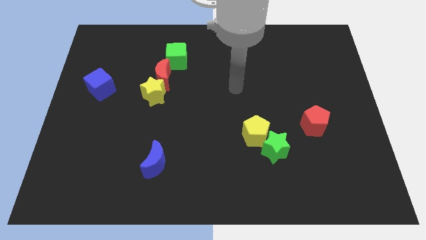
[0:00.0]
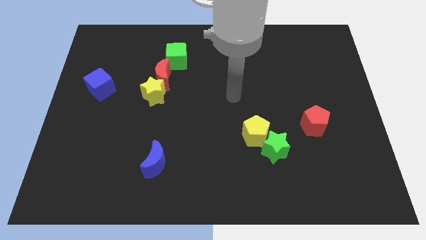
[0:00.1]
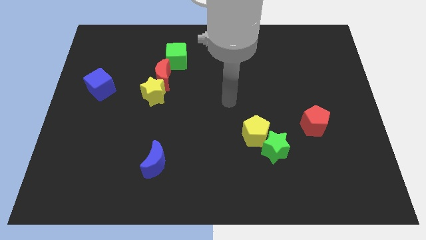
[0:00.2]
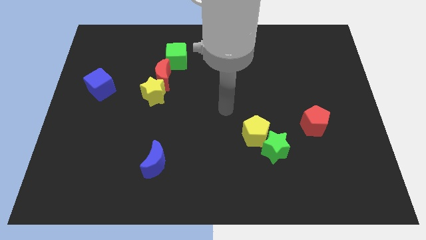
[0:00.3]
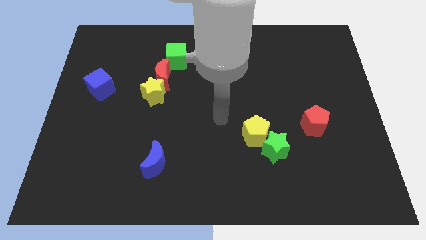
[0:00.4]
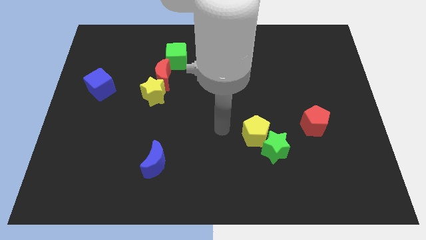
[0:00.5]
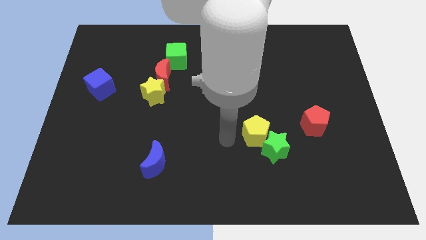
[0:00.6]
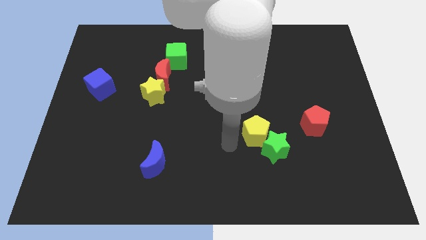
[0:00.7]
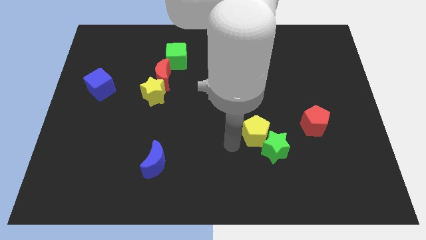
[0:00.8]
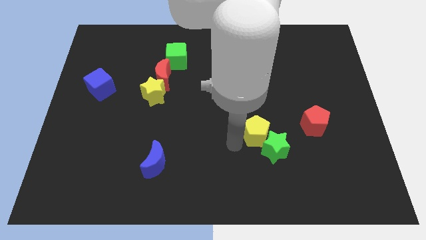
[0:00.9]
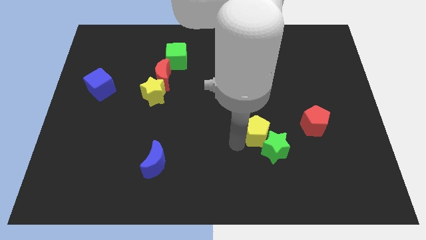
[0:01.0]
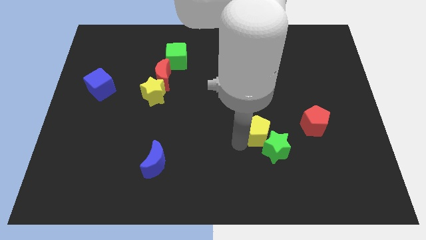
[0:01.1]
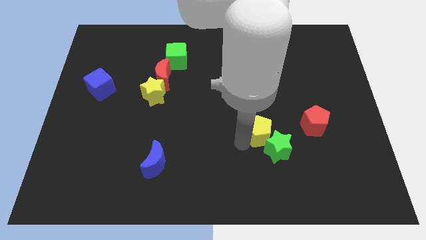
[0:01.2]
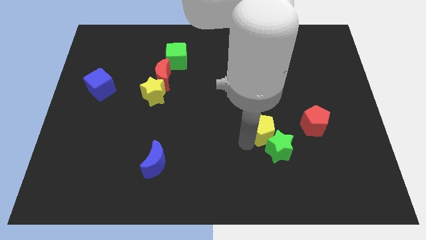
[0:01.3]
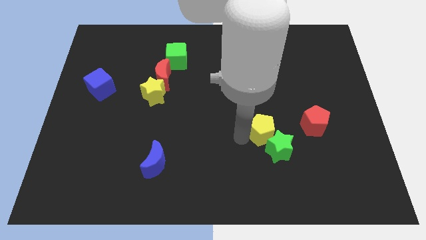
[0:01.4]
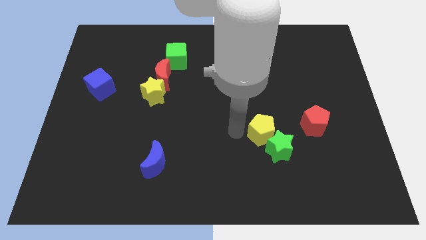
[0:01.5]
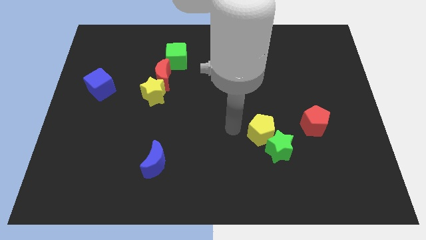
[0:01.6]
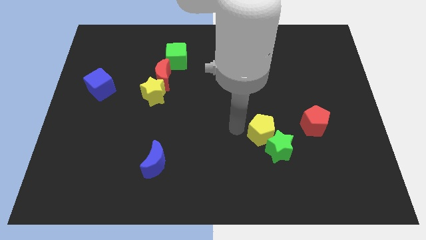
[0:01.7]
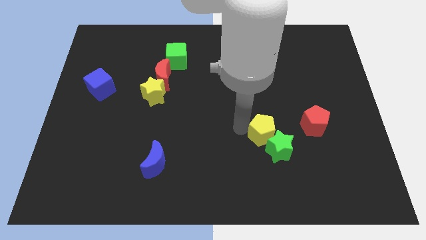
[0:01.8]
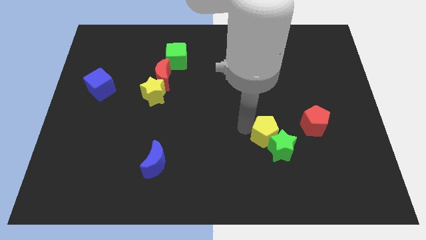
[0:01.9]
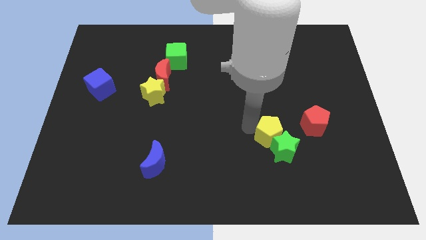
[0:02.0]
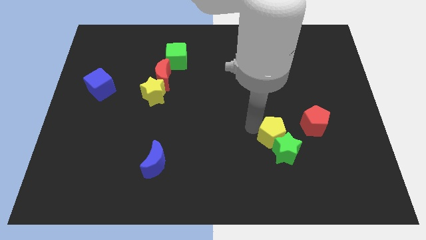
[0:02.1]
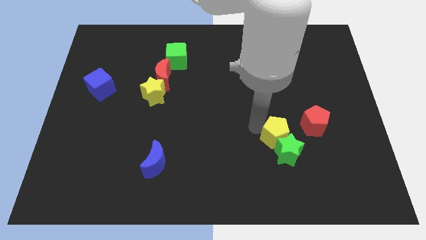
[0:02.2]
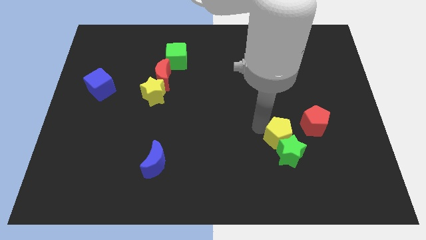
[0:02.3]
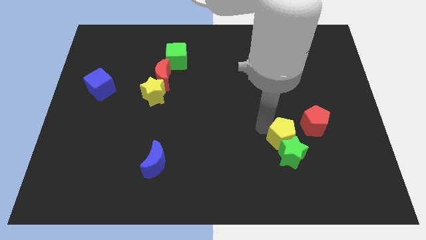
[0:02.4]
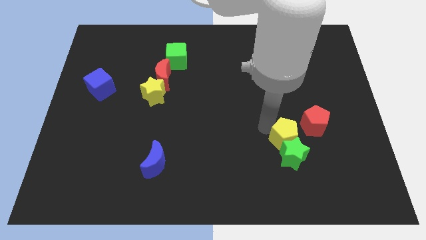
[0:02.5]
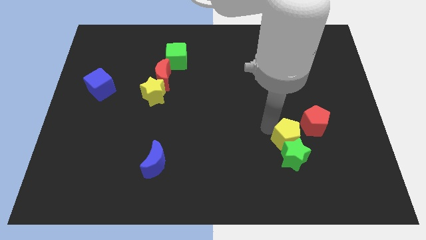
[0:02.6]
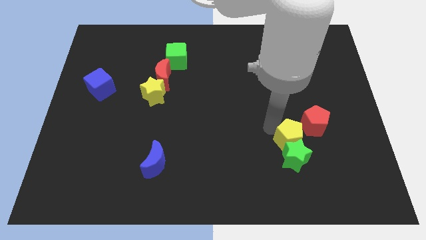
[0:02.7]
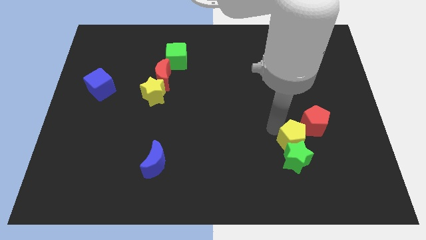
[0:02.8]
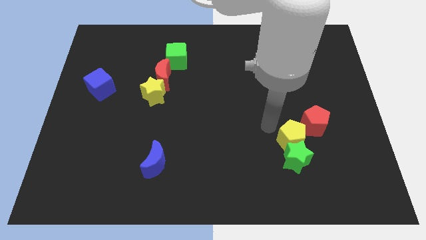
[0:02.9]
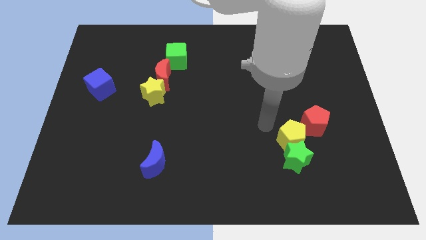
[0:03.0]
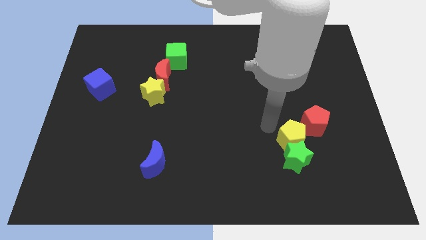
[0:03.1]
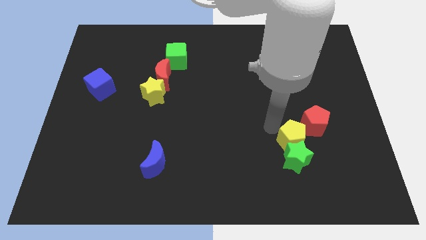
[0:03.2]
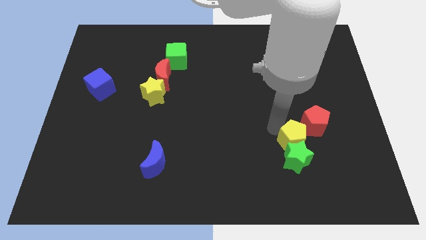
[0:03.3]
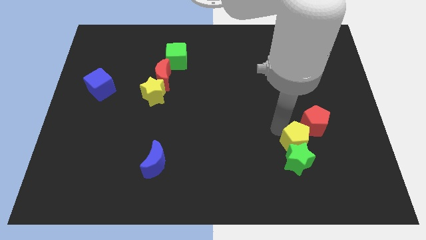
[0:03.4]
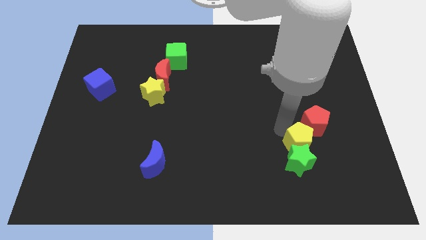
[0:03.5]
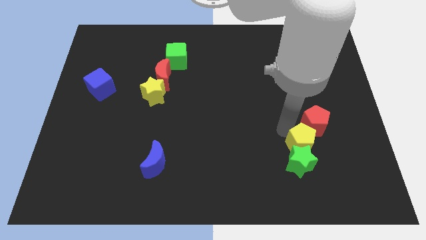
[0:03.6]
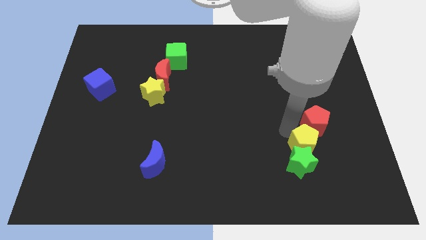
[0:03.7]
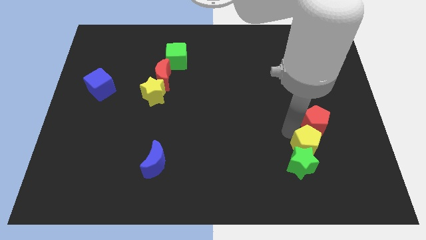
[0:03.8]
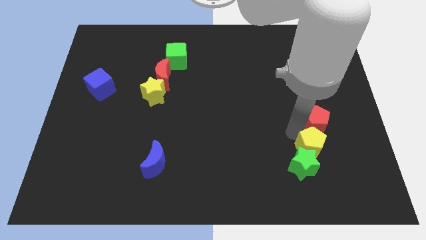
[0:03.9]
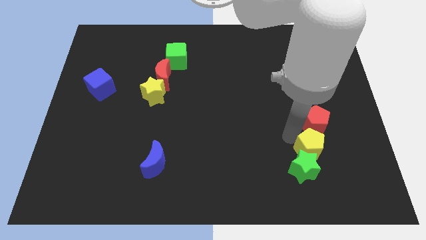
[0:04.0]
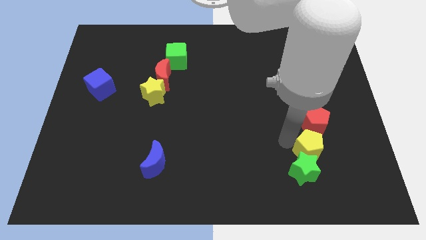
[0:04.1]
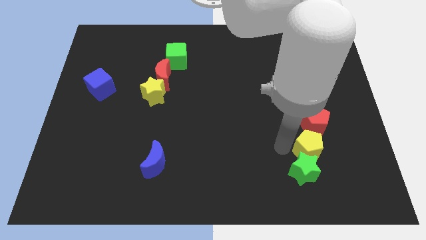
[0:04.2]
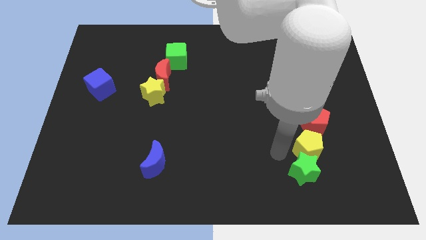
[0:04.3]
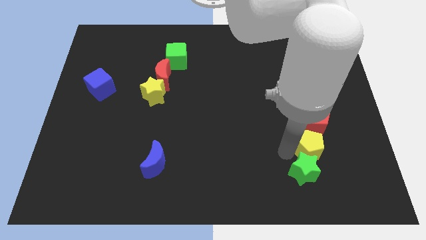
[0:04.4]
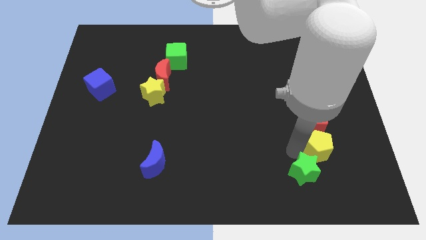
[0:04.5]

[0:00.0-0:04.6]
put the yellow pentagon to the bottom right side of the red pentagon

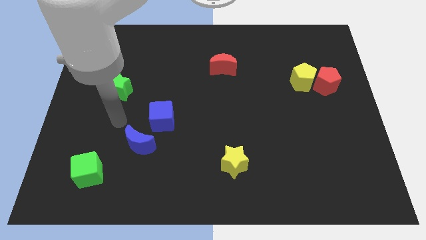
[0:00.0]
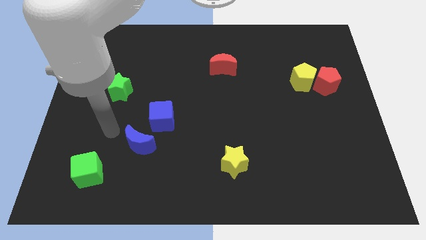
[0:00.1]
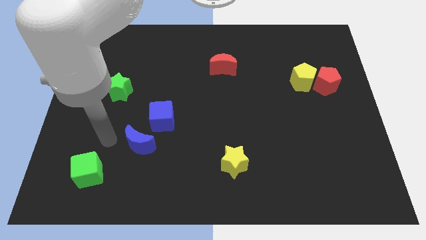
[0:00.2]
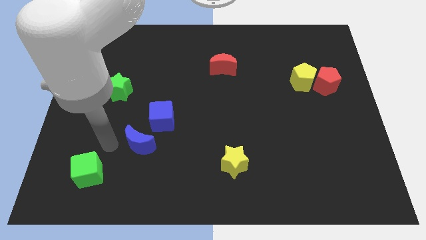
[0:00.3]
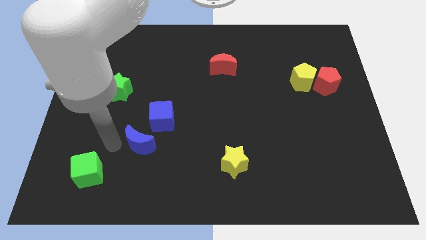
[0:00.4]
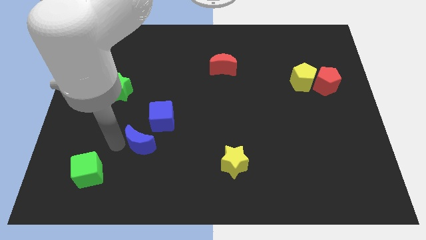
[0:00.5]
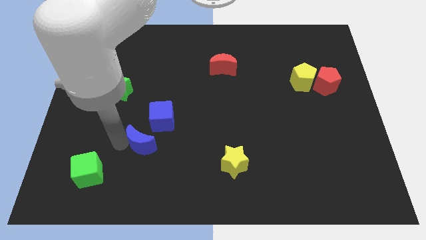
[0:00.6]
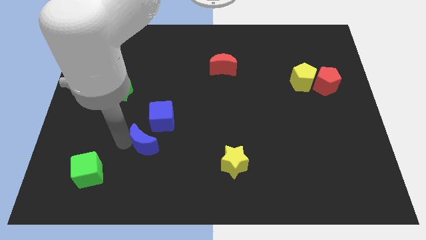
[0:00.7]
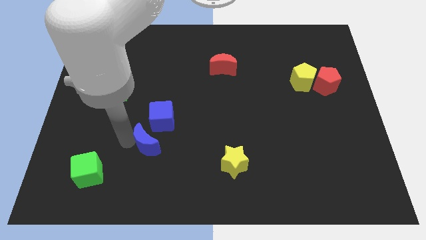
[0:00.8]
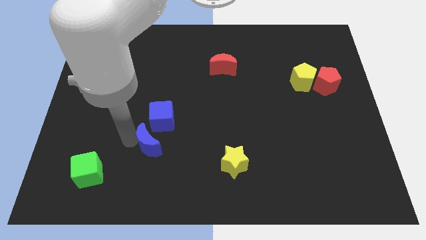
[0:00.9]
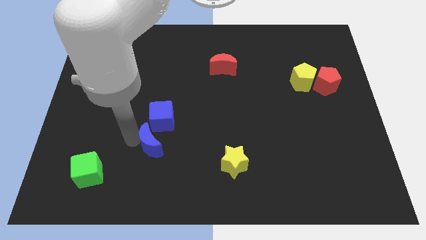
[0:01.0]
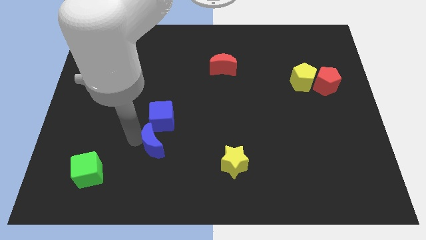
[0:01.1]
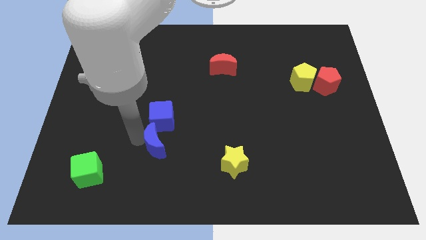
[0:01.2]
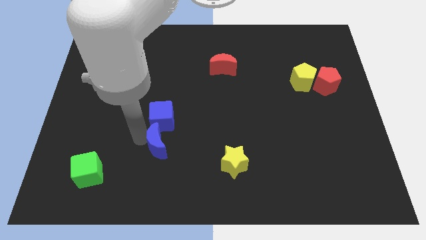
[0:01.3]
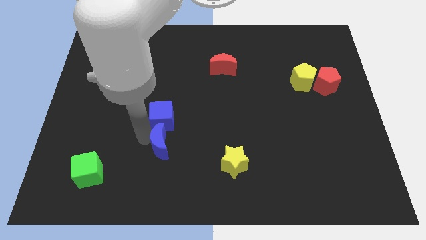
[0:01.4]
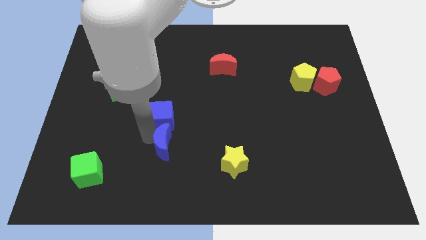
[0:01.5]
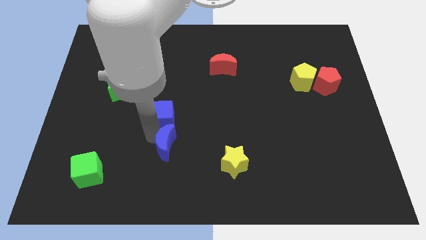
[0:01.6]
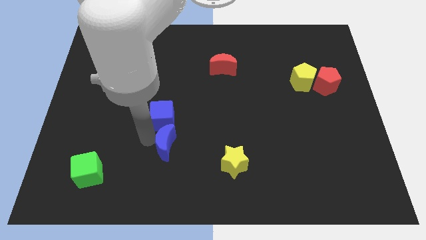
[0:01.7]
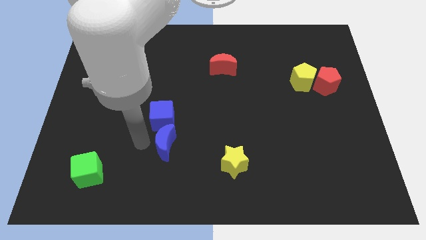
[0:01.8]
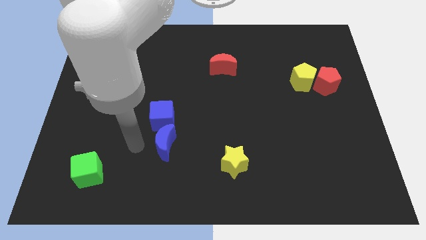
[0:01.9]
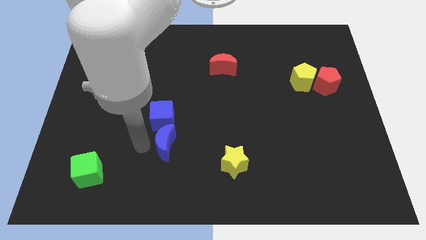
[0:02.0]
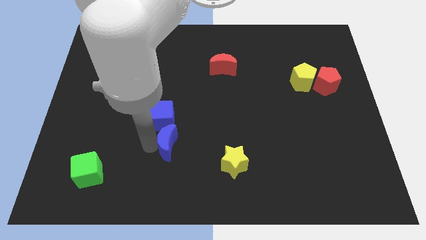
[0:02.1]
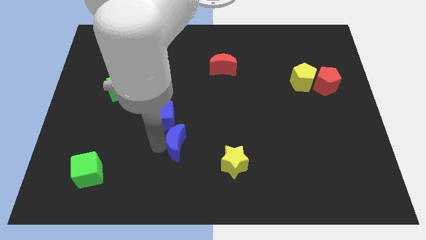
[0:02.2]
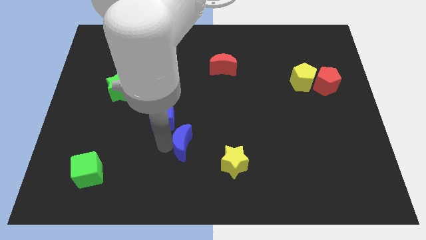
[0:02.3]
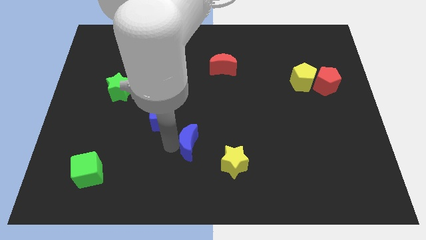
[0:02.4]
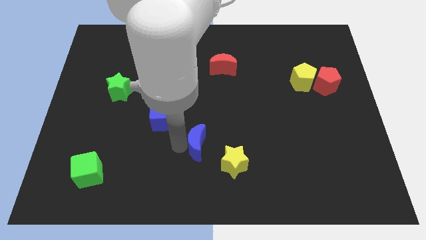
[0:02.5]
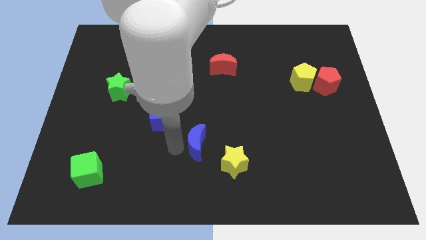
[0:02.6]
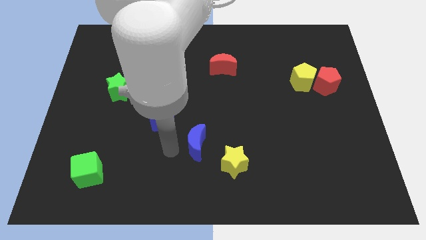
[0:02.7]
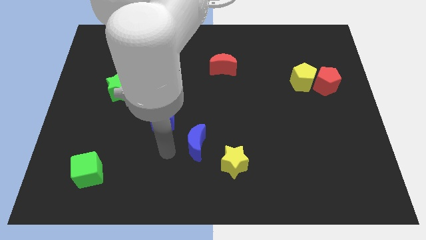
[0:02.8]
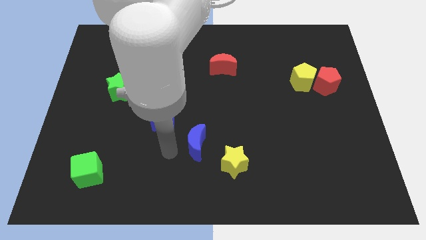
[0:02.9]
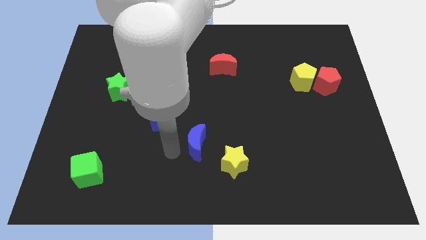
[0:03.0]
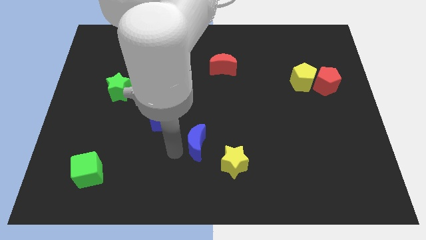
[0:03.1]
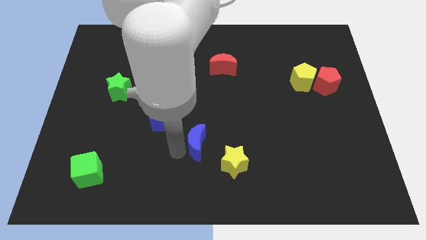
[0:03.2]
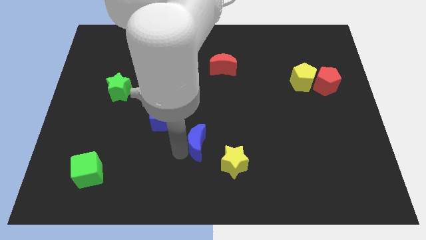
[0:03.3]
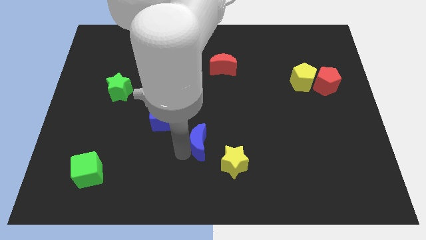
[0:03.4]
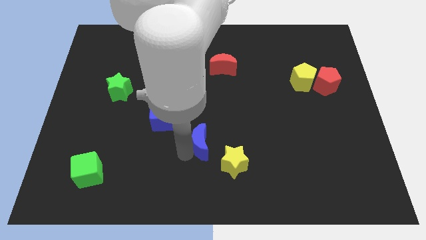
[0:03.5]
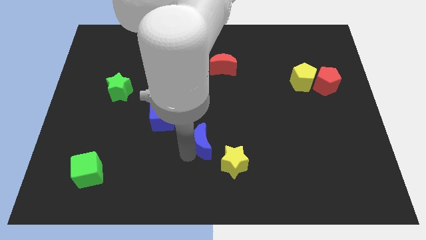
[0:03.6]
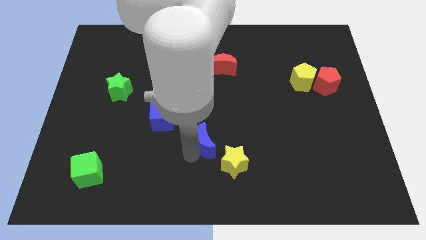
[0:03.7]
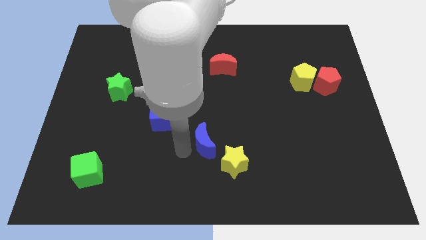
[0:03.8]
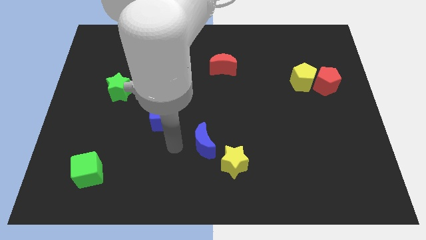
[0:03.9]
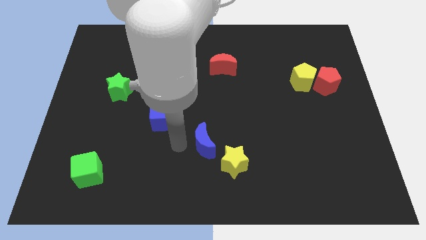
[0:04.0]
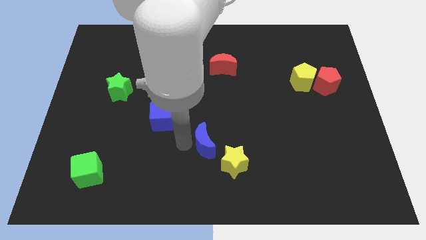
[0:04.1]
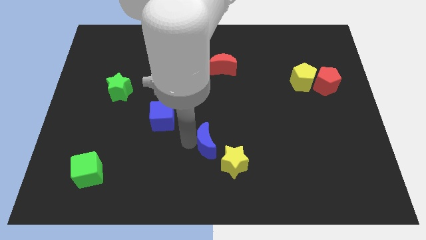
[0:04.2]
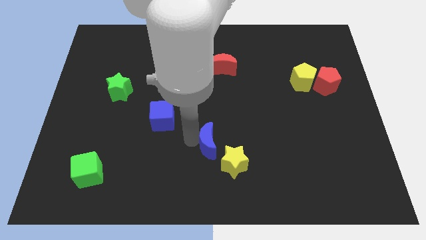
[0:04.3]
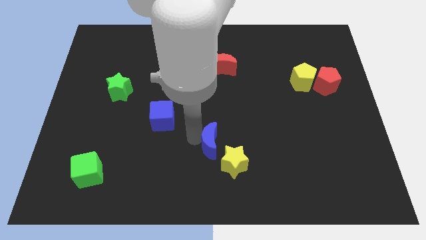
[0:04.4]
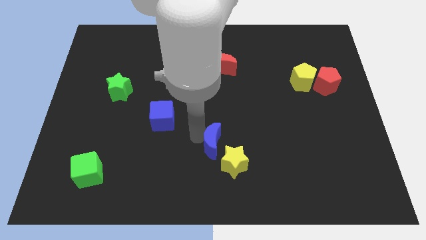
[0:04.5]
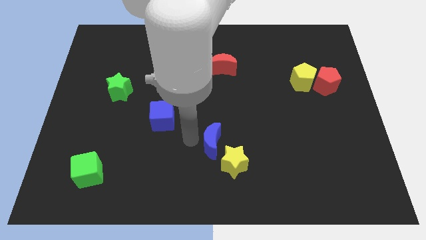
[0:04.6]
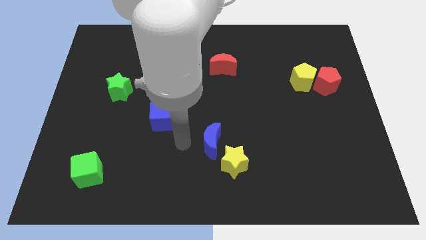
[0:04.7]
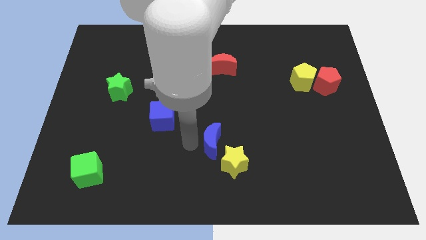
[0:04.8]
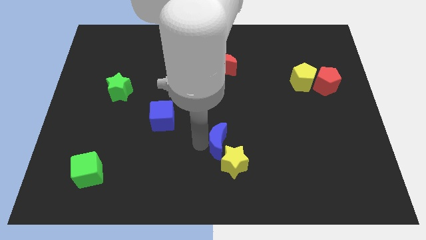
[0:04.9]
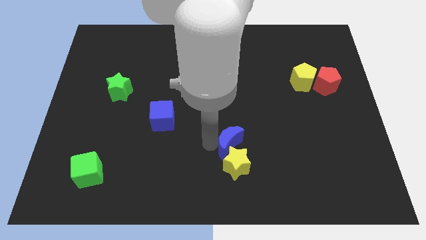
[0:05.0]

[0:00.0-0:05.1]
move the blue moon to the top right side of the yellow star
